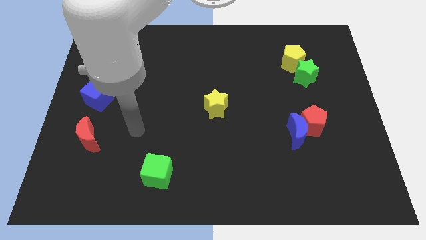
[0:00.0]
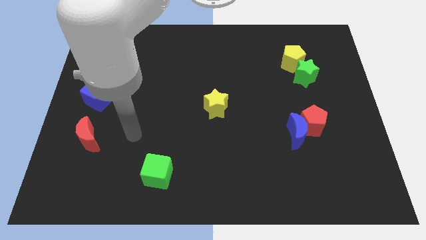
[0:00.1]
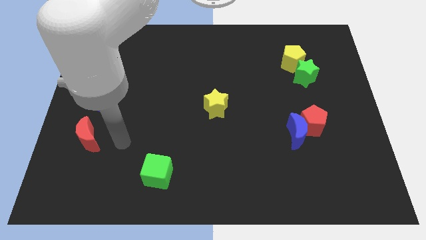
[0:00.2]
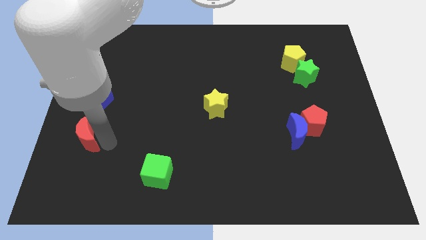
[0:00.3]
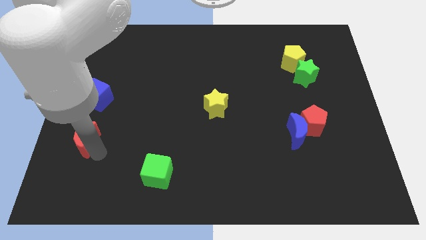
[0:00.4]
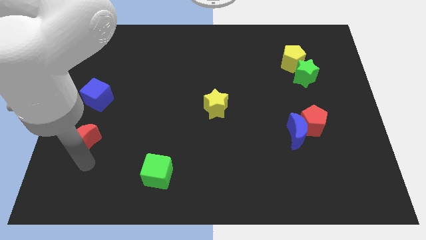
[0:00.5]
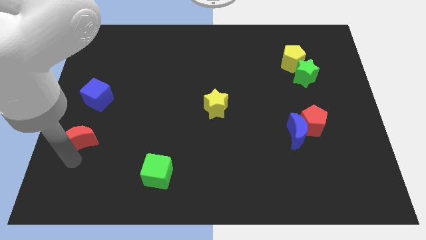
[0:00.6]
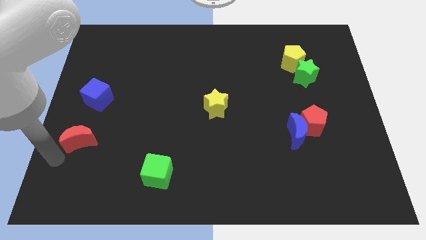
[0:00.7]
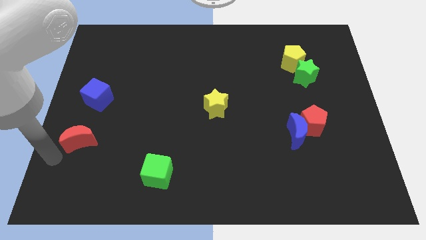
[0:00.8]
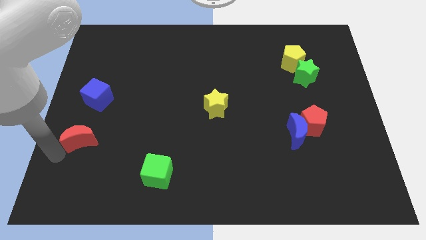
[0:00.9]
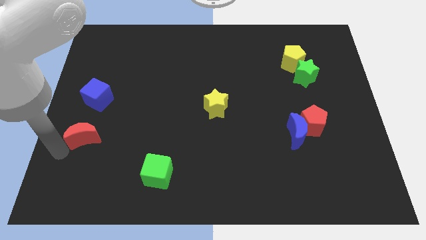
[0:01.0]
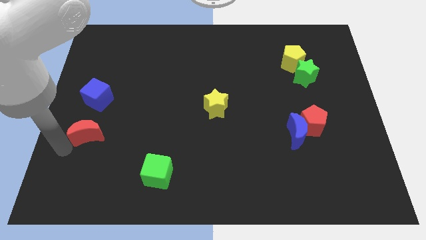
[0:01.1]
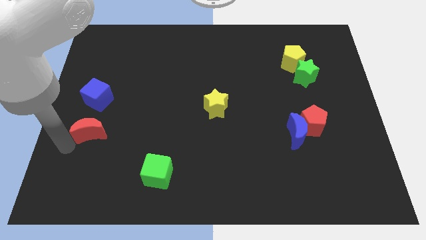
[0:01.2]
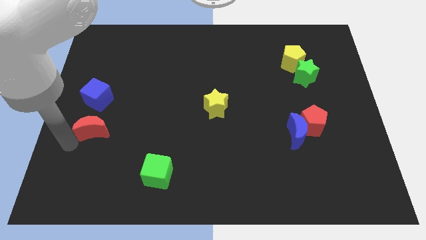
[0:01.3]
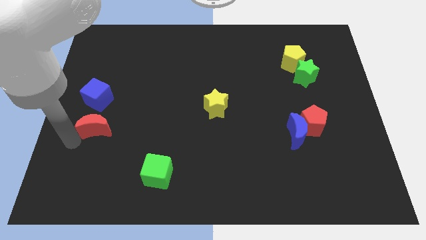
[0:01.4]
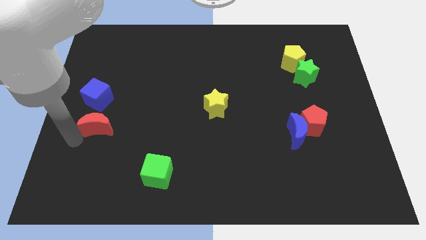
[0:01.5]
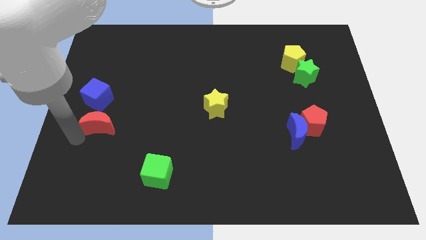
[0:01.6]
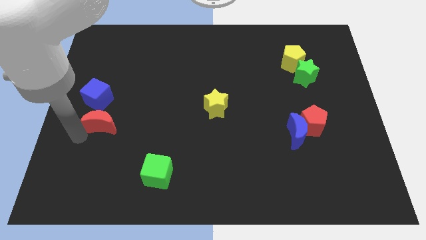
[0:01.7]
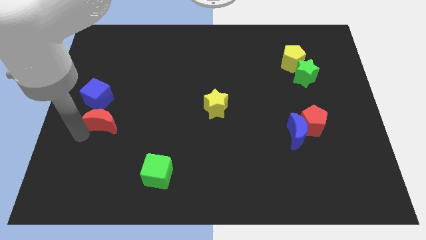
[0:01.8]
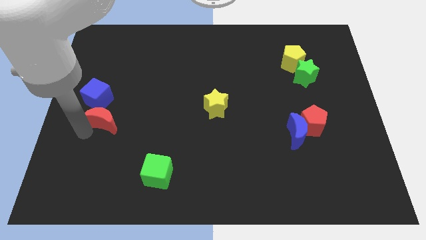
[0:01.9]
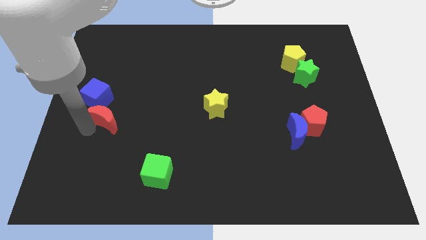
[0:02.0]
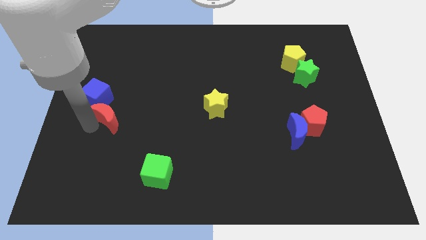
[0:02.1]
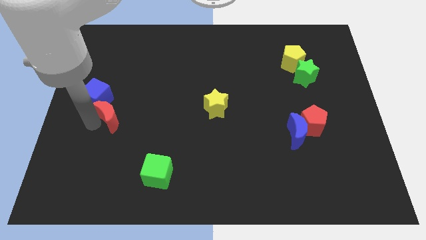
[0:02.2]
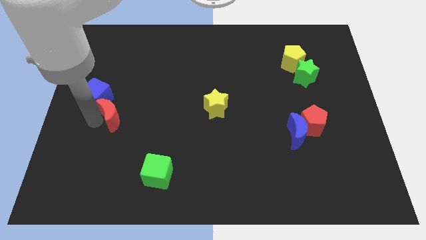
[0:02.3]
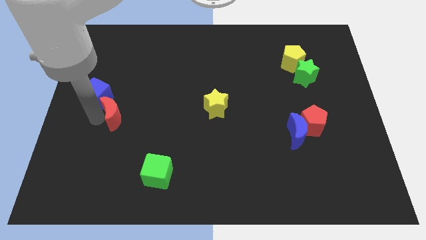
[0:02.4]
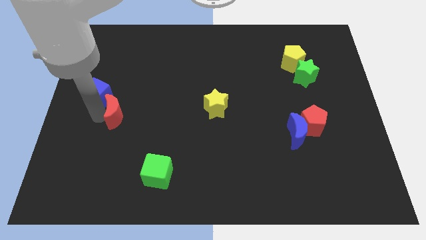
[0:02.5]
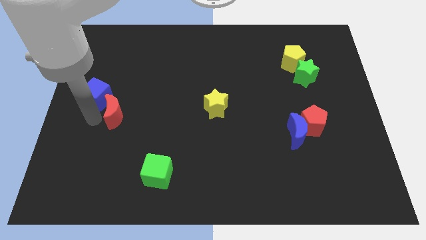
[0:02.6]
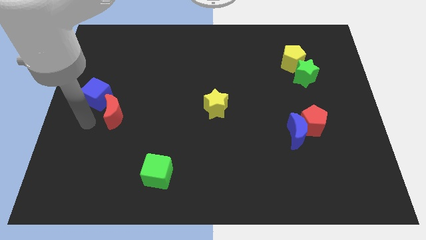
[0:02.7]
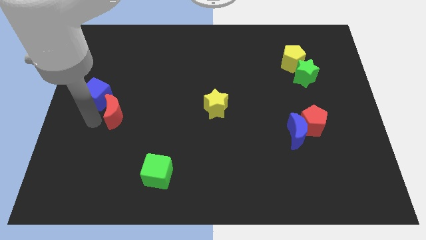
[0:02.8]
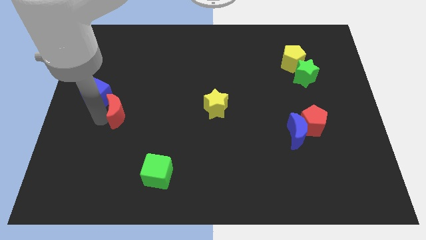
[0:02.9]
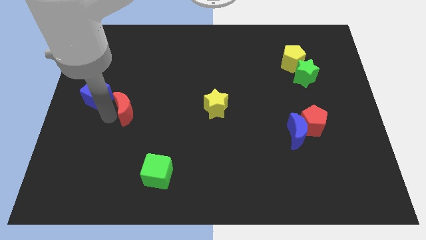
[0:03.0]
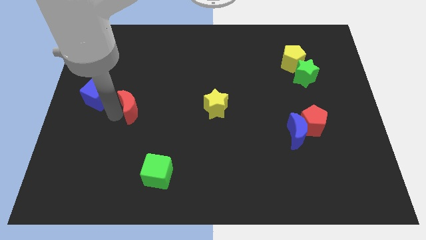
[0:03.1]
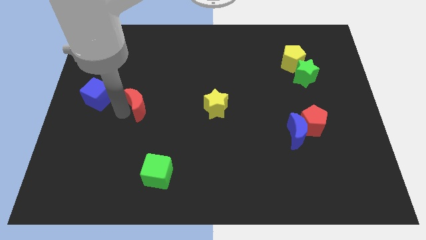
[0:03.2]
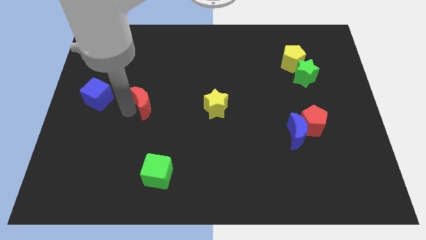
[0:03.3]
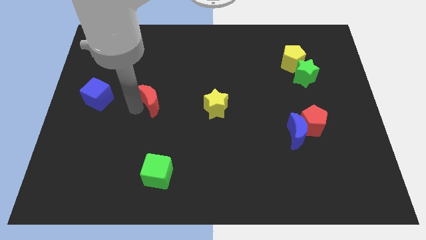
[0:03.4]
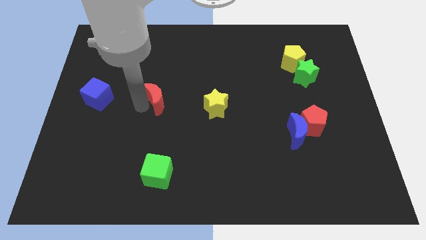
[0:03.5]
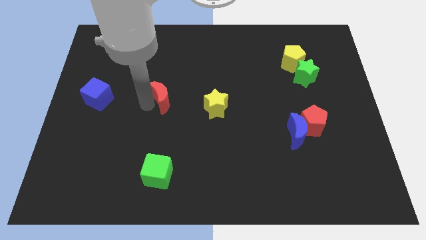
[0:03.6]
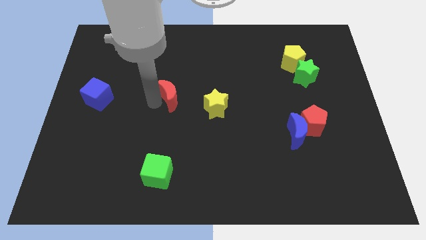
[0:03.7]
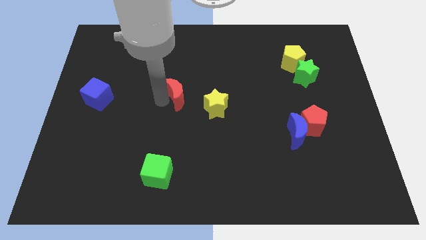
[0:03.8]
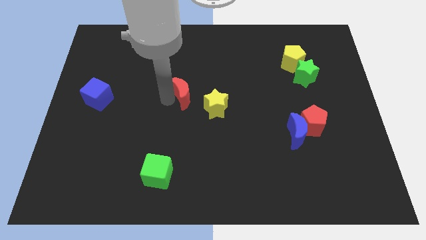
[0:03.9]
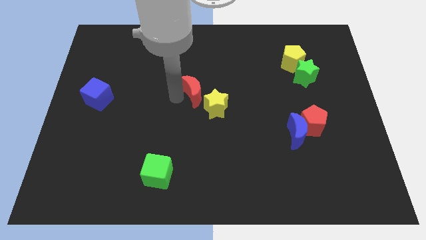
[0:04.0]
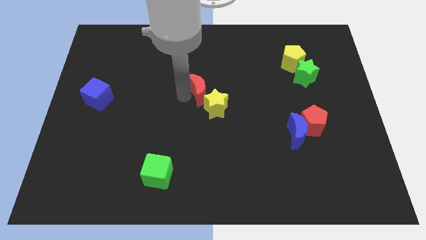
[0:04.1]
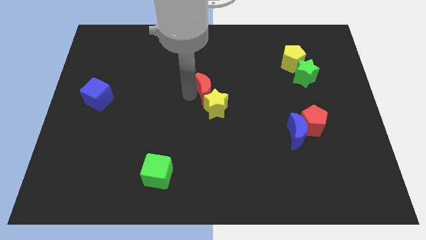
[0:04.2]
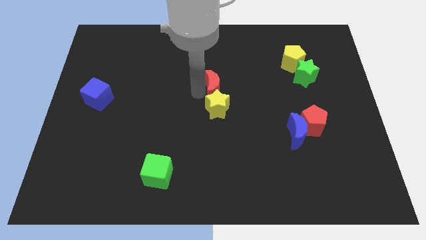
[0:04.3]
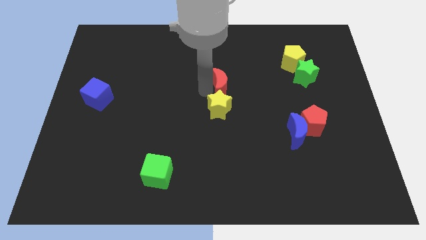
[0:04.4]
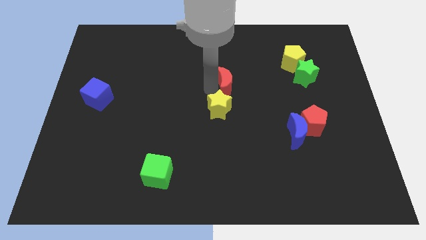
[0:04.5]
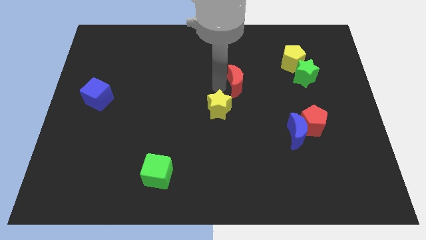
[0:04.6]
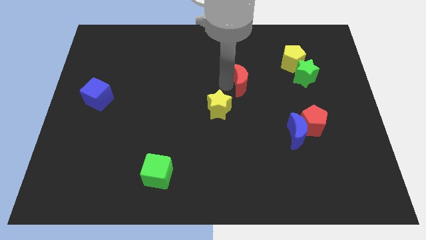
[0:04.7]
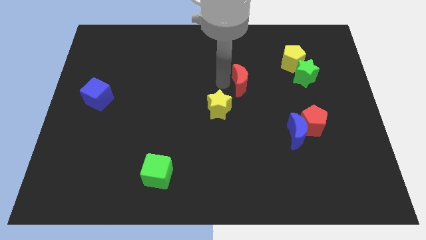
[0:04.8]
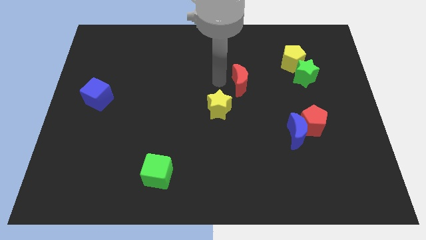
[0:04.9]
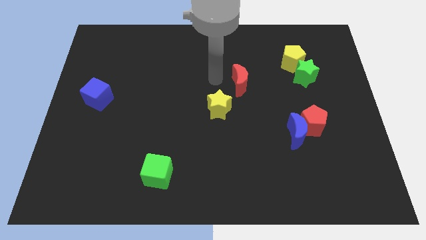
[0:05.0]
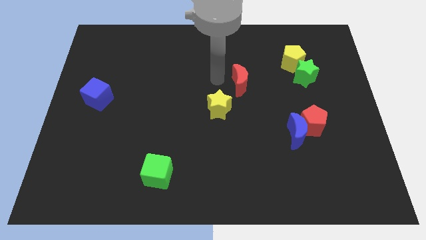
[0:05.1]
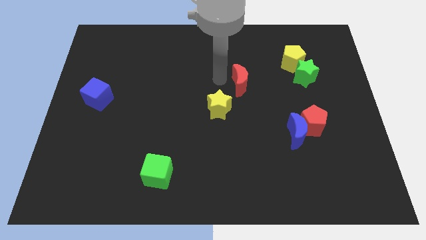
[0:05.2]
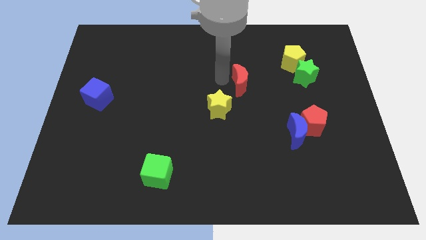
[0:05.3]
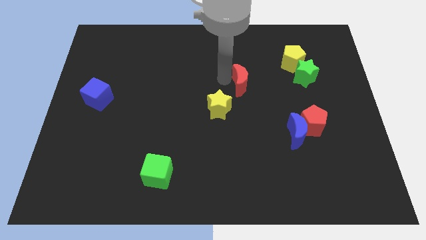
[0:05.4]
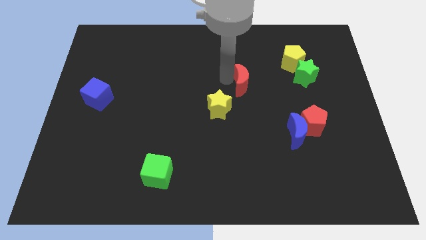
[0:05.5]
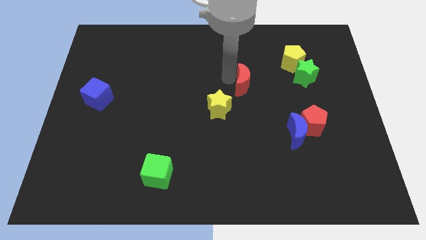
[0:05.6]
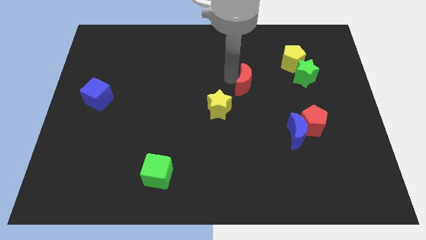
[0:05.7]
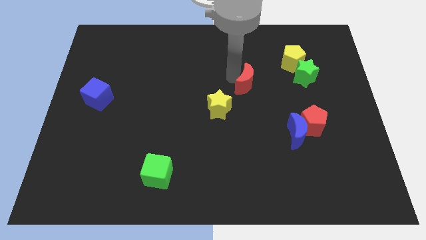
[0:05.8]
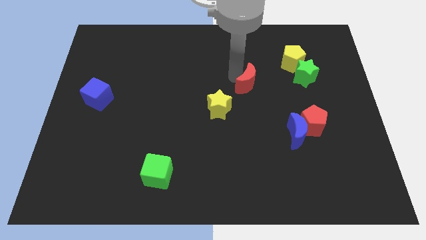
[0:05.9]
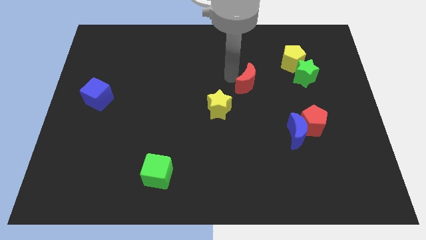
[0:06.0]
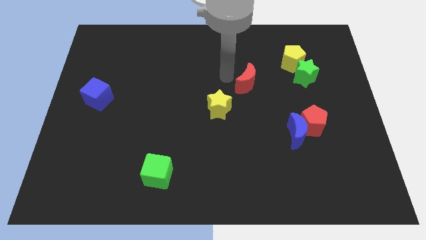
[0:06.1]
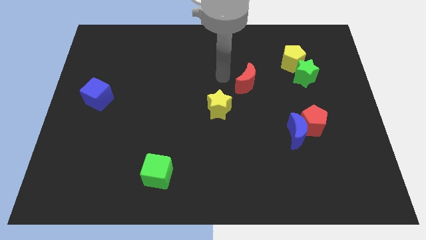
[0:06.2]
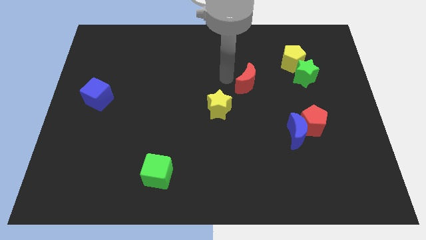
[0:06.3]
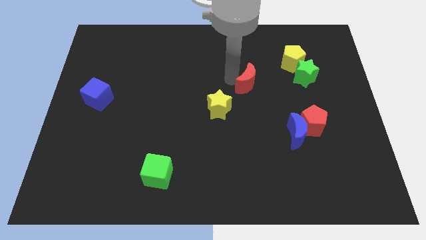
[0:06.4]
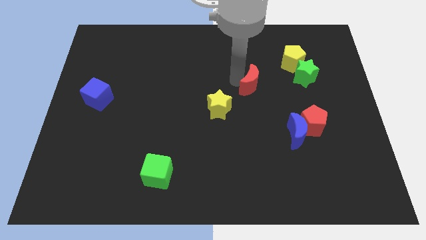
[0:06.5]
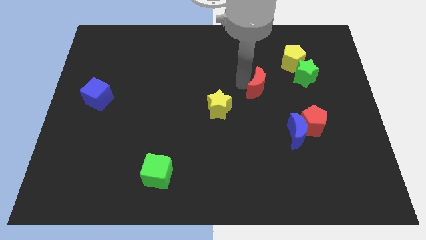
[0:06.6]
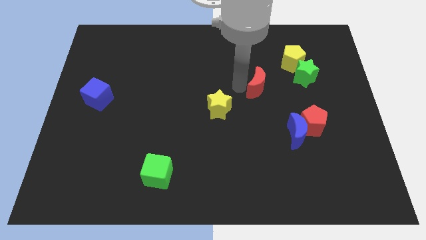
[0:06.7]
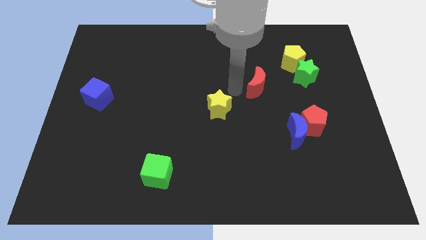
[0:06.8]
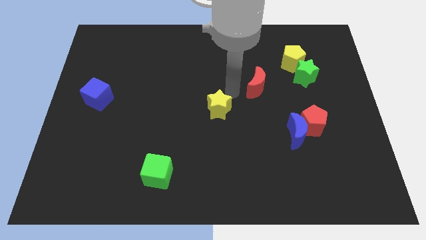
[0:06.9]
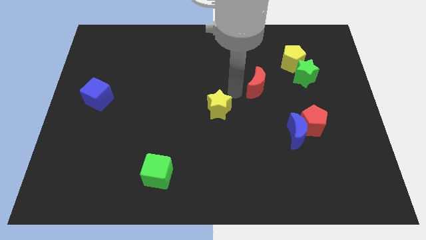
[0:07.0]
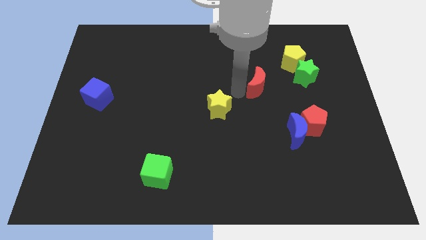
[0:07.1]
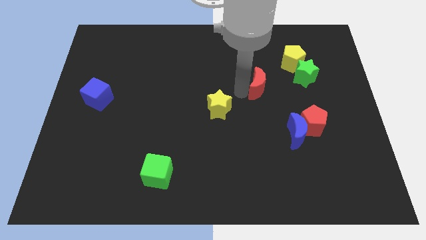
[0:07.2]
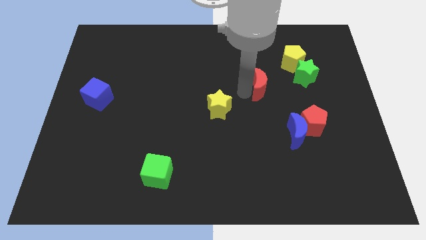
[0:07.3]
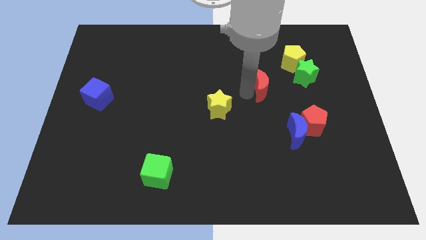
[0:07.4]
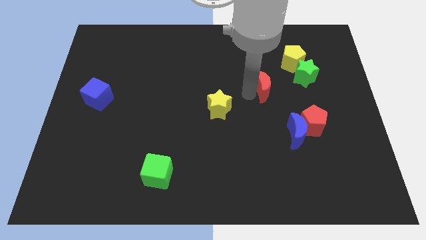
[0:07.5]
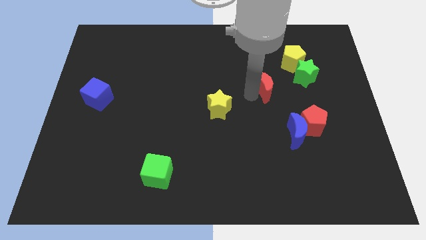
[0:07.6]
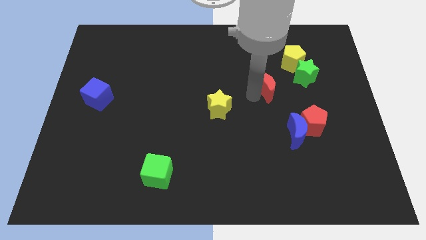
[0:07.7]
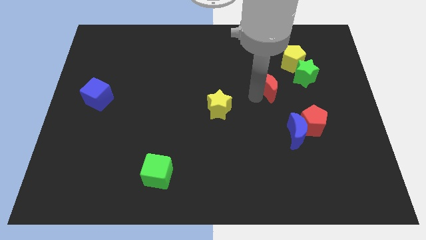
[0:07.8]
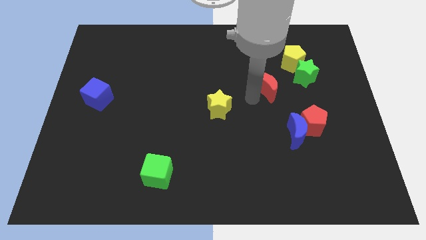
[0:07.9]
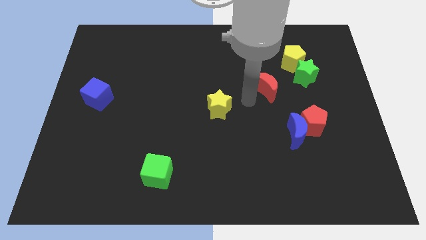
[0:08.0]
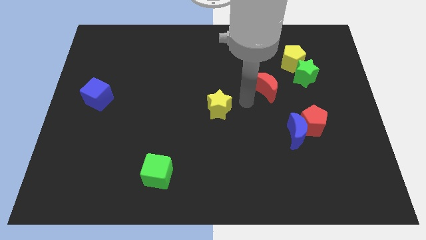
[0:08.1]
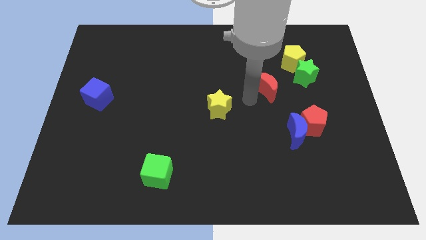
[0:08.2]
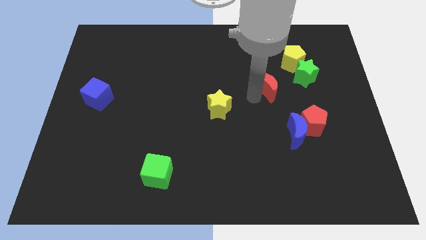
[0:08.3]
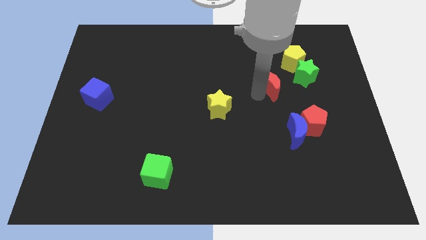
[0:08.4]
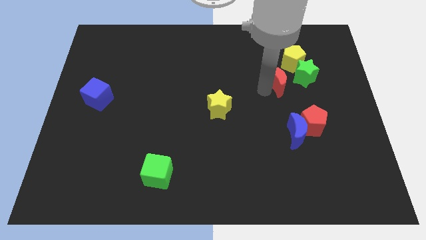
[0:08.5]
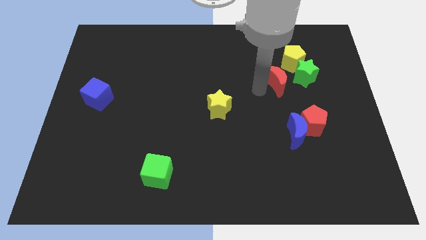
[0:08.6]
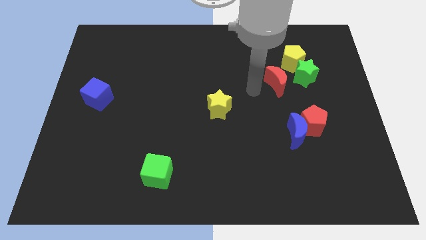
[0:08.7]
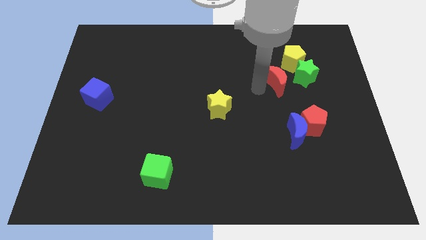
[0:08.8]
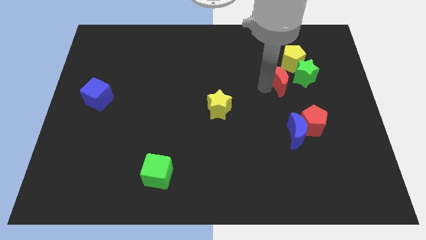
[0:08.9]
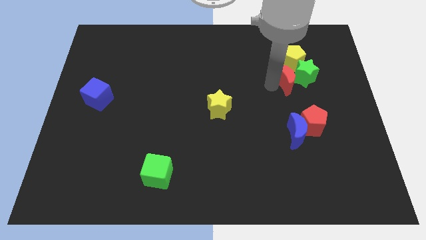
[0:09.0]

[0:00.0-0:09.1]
push the red moon towards the green star
